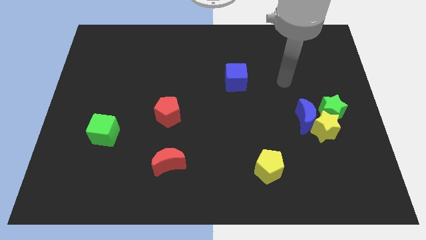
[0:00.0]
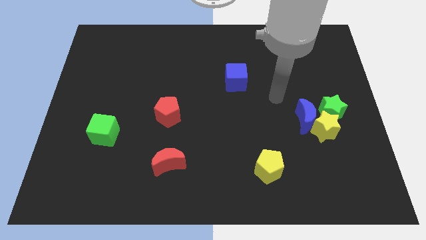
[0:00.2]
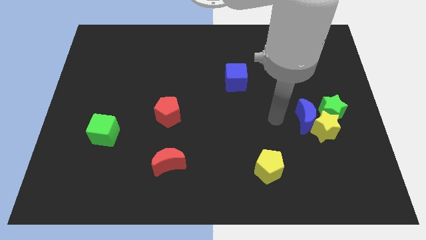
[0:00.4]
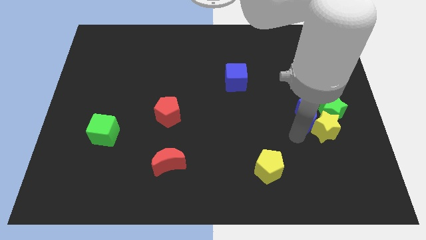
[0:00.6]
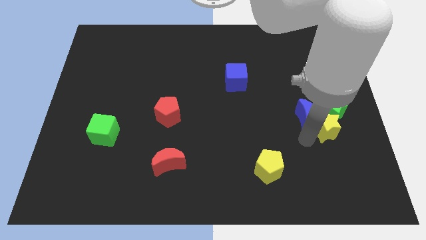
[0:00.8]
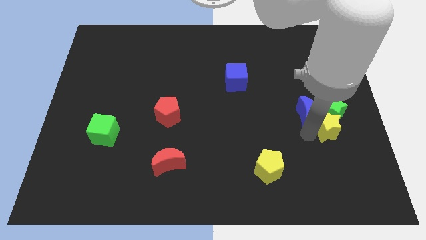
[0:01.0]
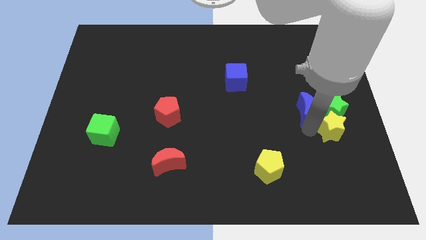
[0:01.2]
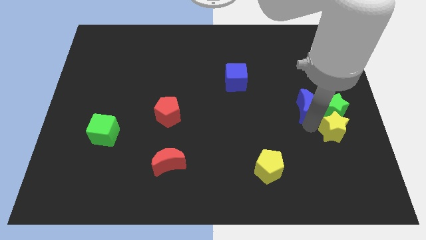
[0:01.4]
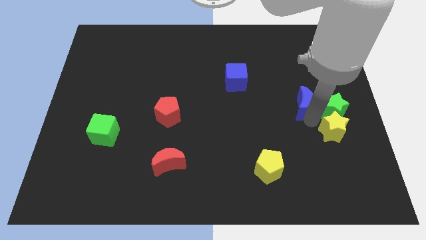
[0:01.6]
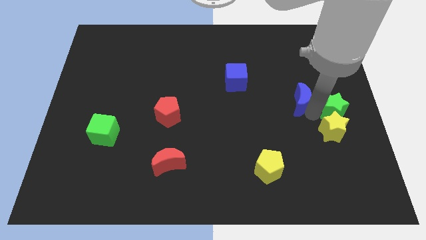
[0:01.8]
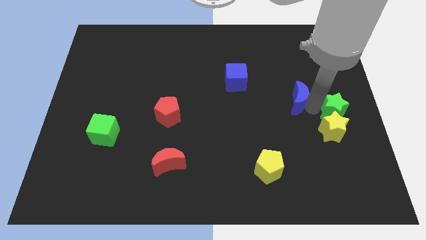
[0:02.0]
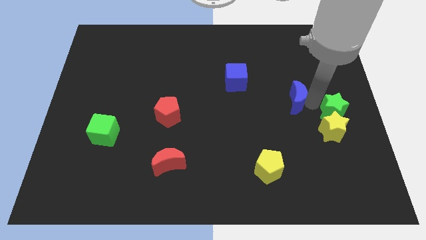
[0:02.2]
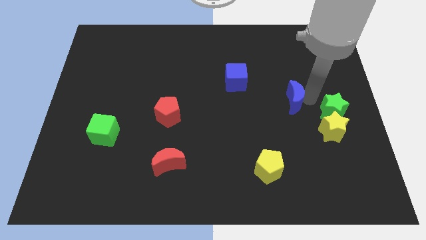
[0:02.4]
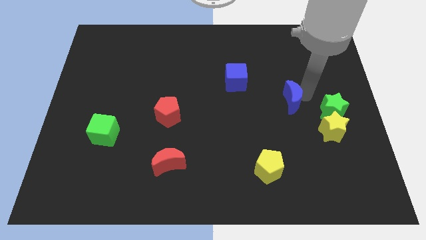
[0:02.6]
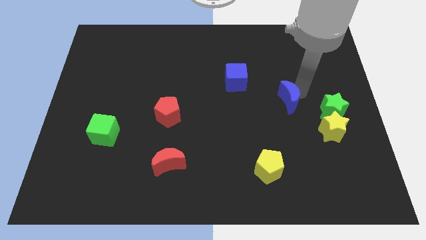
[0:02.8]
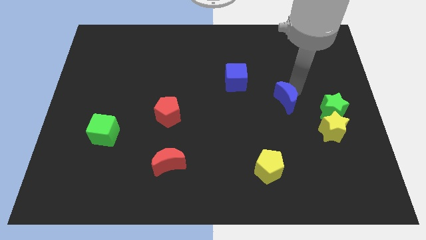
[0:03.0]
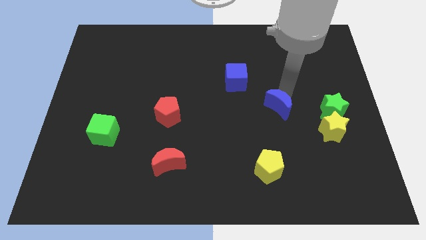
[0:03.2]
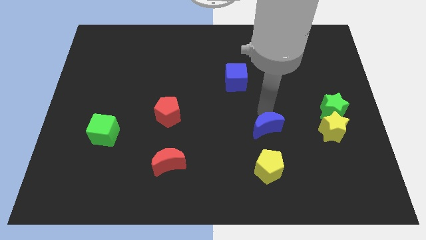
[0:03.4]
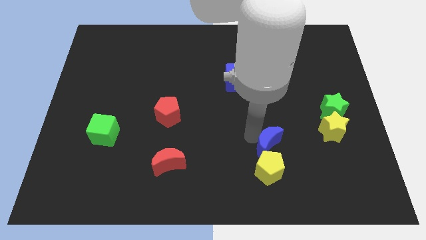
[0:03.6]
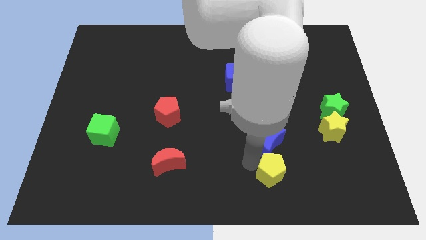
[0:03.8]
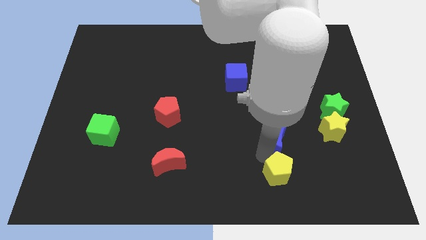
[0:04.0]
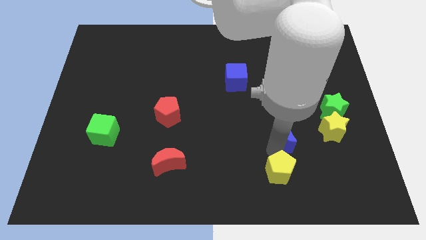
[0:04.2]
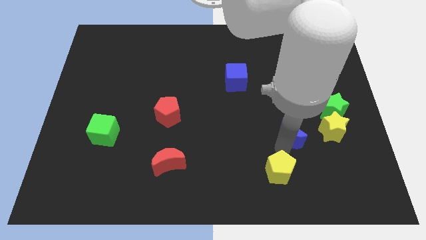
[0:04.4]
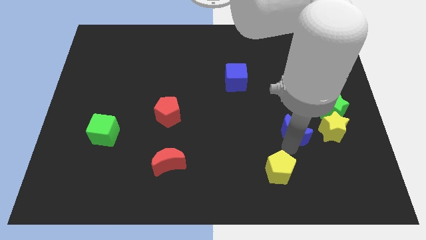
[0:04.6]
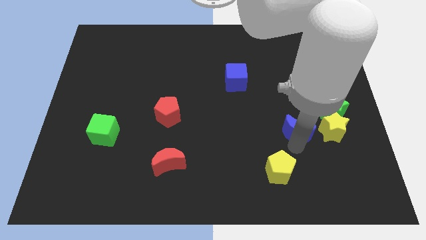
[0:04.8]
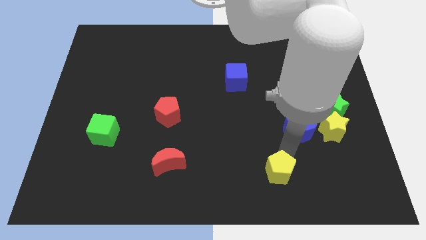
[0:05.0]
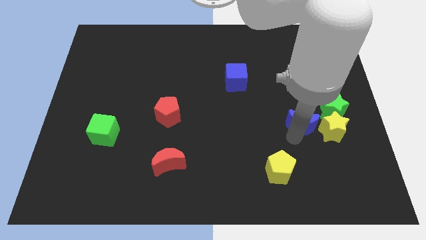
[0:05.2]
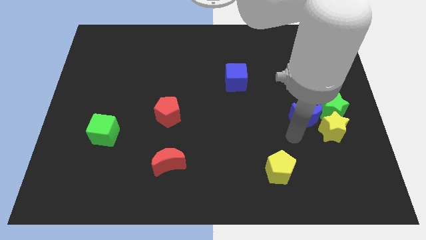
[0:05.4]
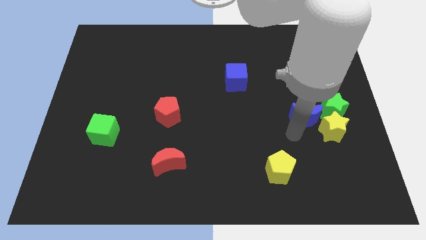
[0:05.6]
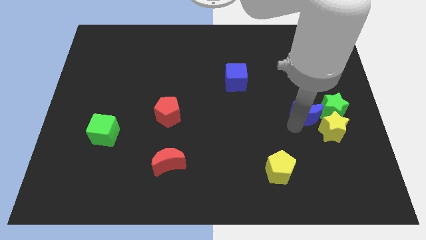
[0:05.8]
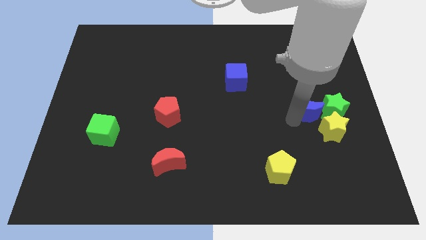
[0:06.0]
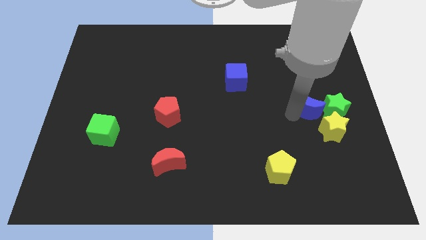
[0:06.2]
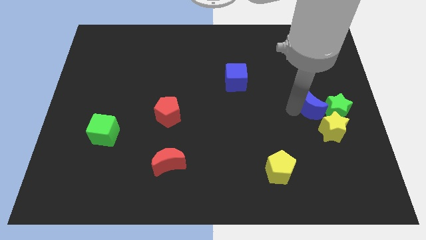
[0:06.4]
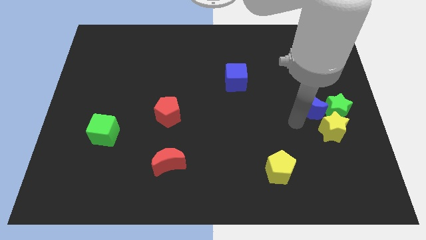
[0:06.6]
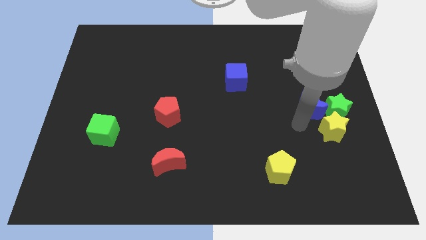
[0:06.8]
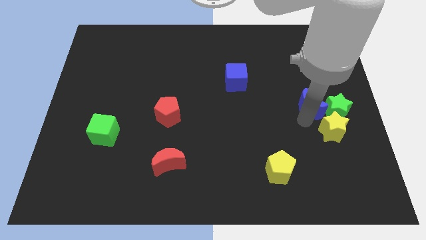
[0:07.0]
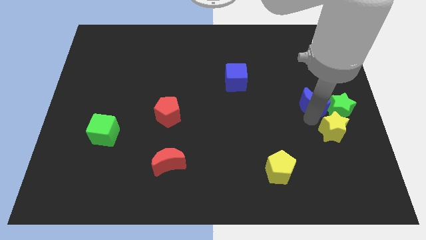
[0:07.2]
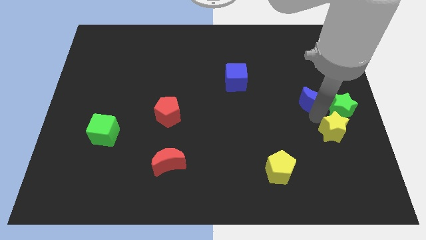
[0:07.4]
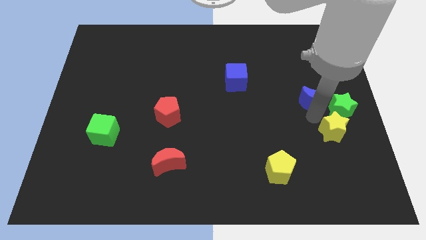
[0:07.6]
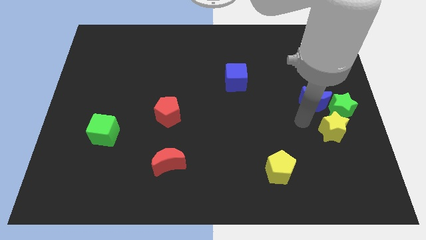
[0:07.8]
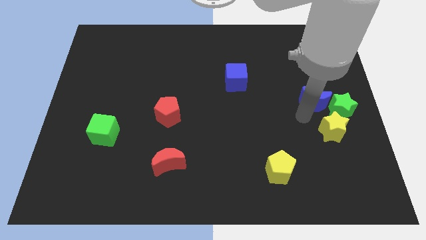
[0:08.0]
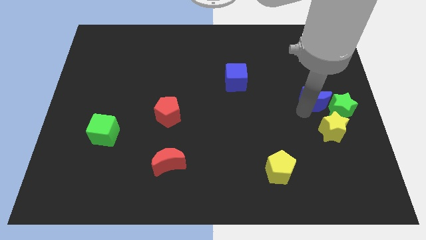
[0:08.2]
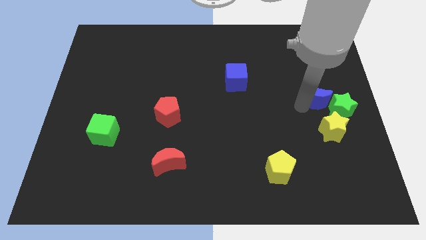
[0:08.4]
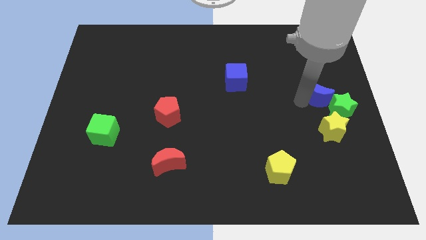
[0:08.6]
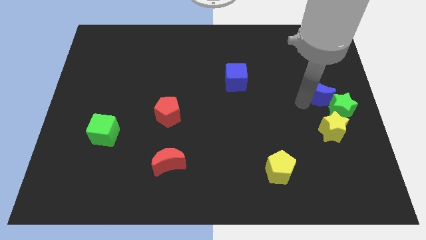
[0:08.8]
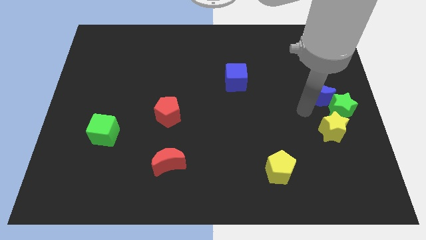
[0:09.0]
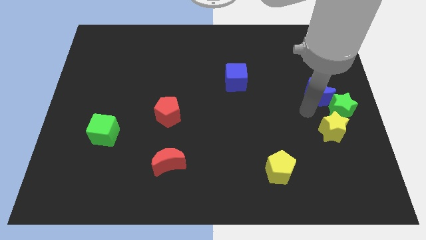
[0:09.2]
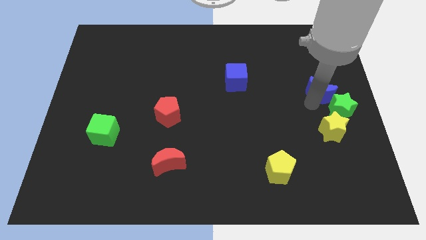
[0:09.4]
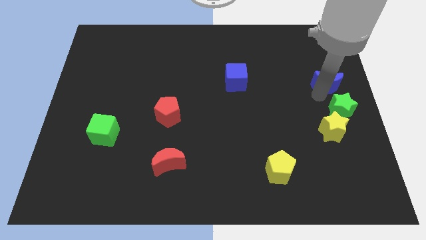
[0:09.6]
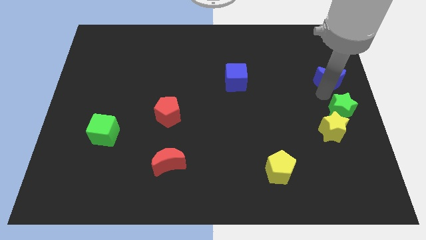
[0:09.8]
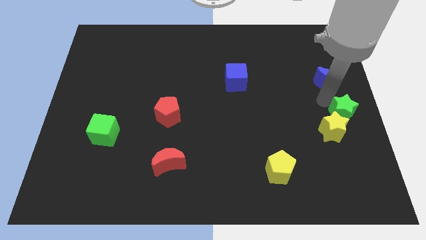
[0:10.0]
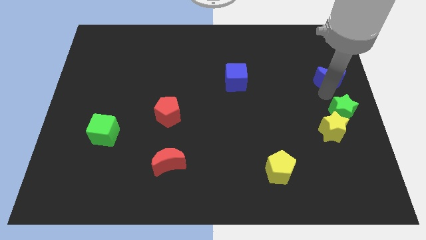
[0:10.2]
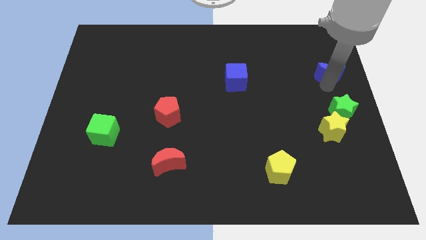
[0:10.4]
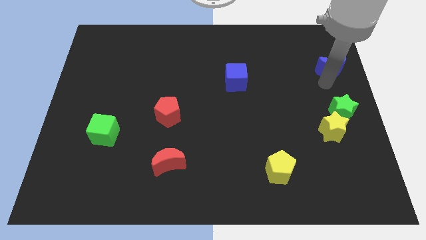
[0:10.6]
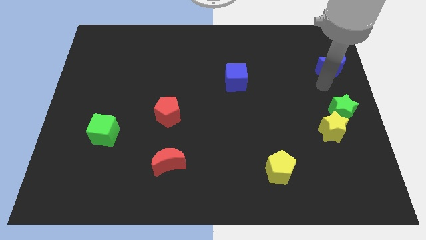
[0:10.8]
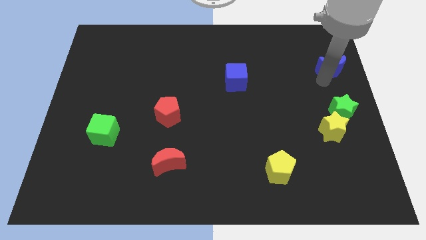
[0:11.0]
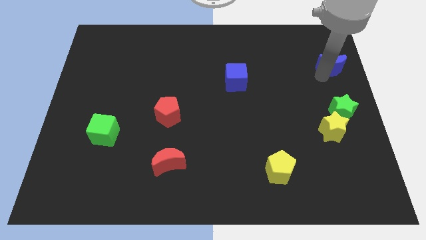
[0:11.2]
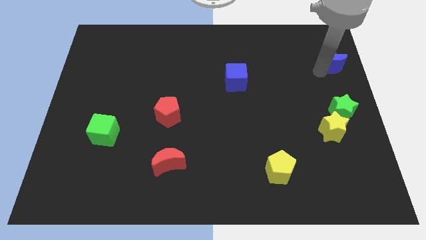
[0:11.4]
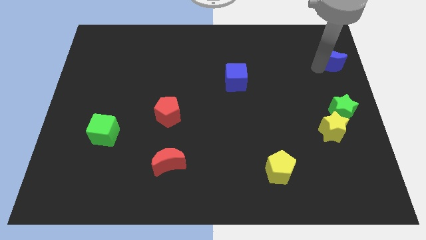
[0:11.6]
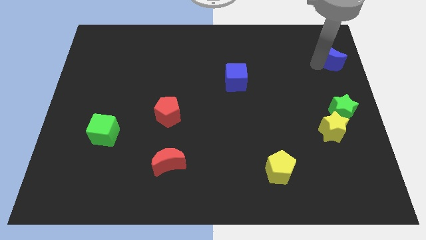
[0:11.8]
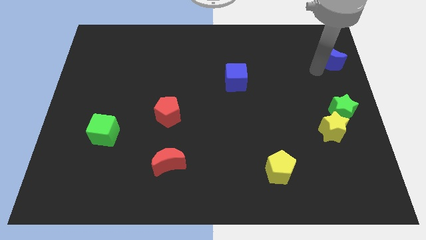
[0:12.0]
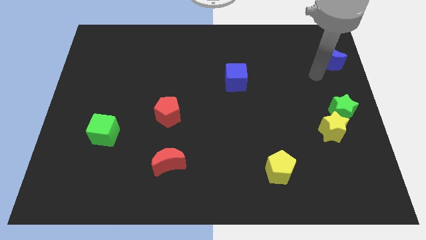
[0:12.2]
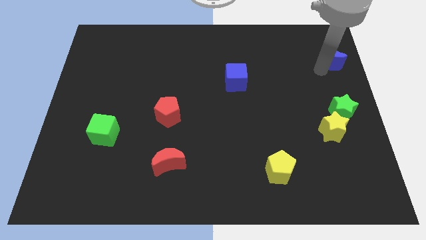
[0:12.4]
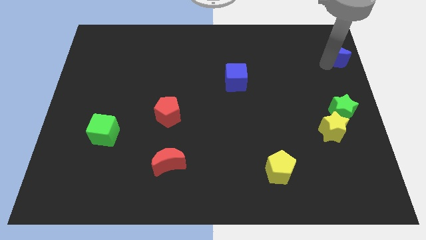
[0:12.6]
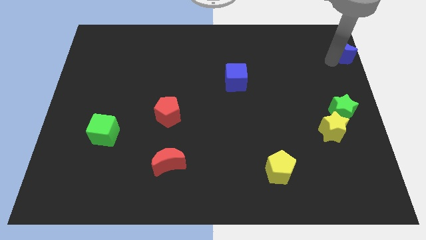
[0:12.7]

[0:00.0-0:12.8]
push the blue moon to the top right corner
